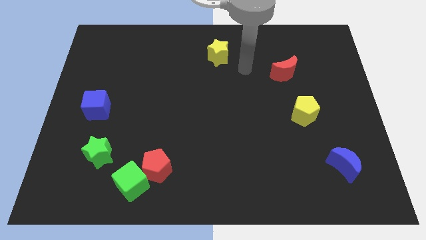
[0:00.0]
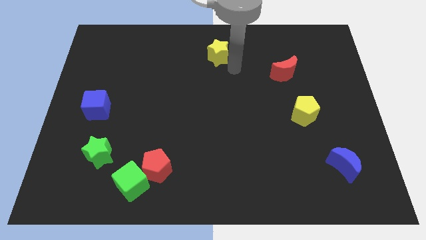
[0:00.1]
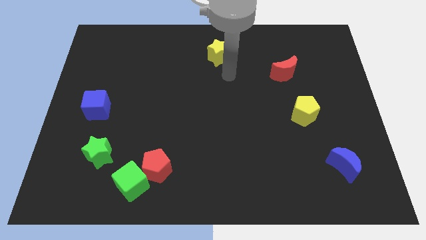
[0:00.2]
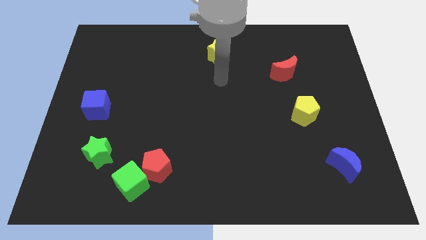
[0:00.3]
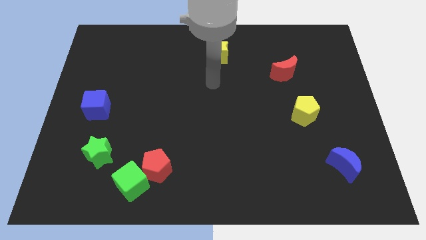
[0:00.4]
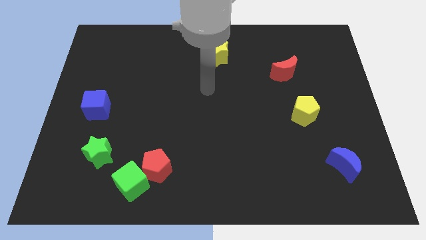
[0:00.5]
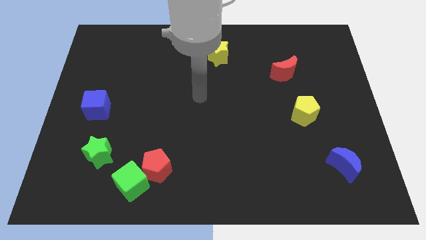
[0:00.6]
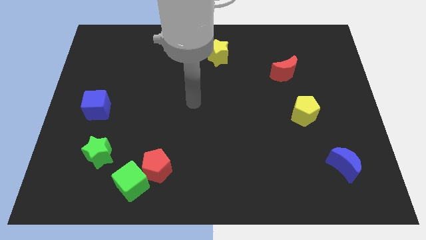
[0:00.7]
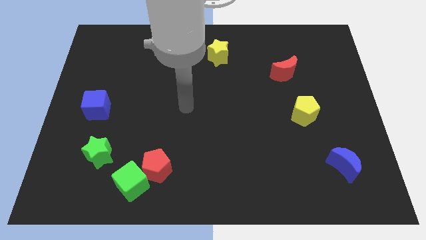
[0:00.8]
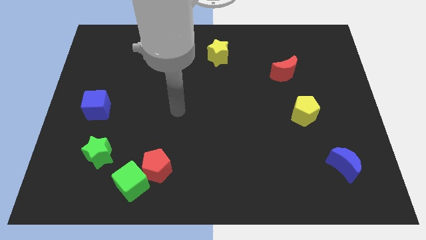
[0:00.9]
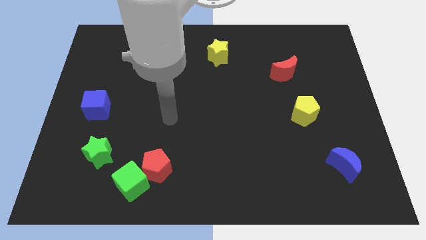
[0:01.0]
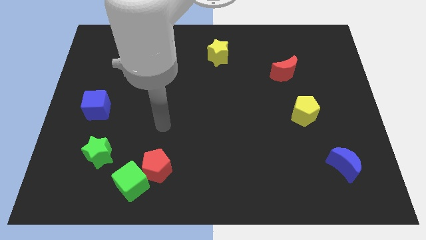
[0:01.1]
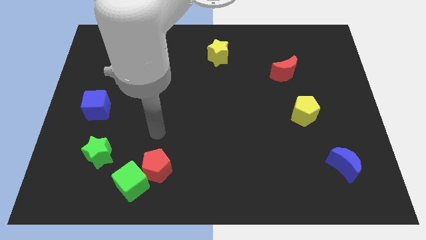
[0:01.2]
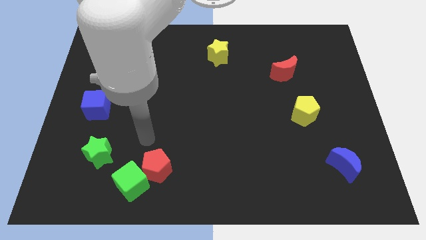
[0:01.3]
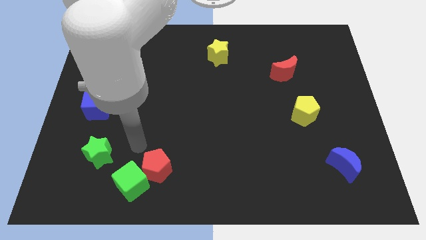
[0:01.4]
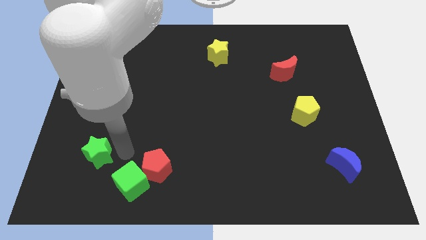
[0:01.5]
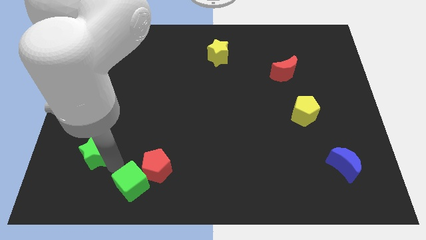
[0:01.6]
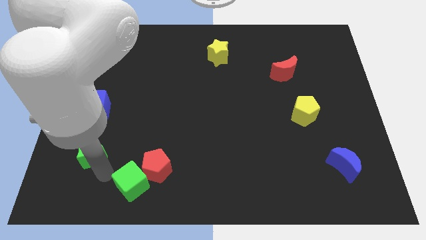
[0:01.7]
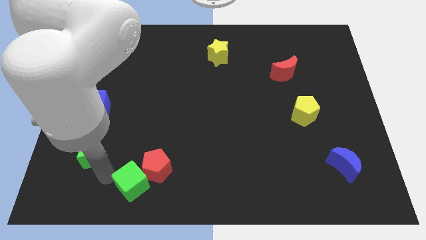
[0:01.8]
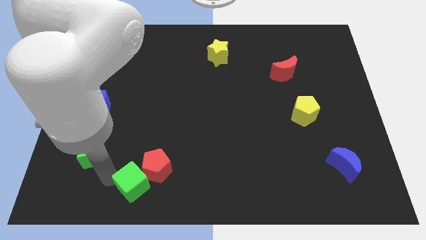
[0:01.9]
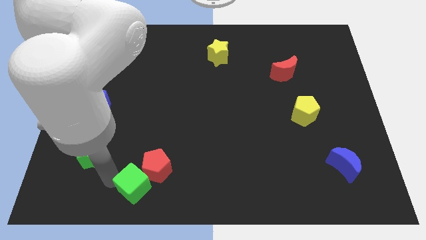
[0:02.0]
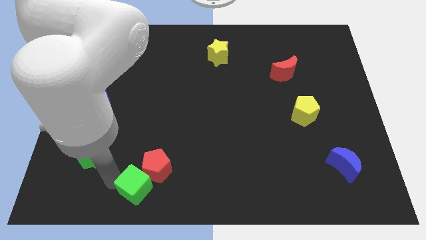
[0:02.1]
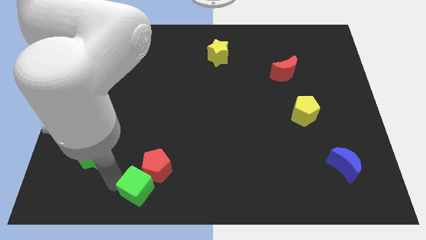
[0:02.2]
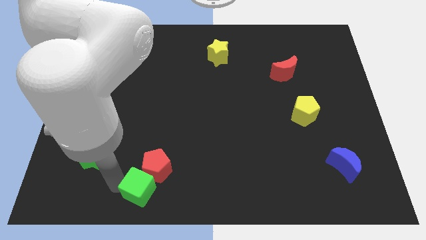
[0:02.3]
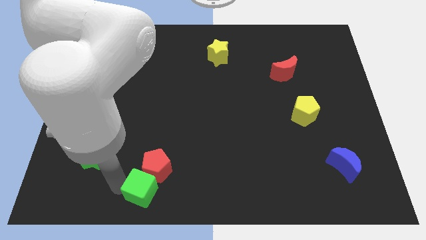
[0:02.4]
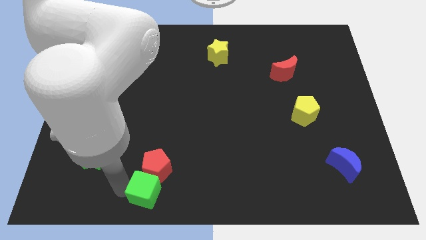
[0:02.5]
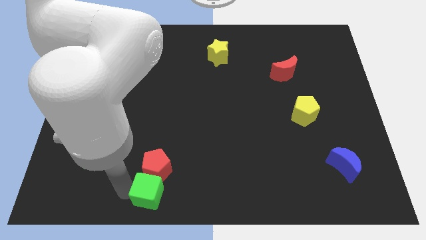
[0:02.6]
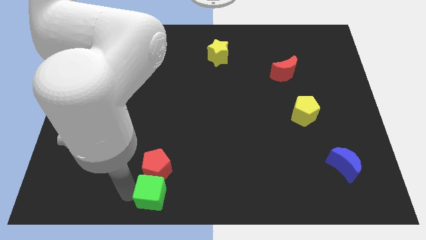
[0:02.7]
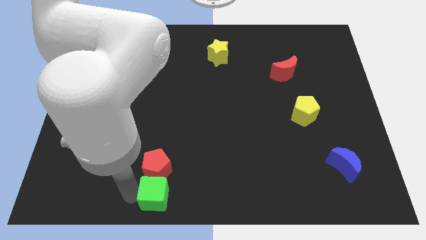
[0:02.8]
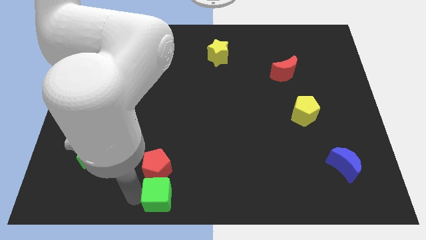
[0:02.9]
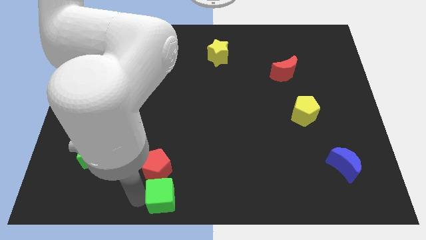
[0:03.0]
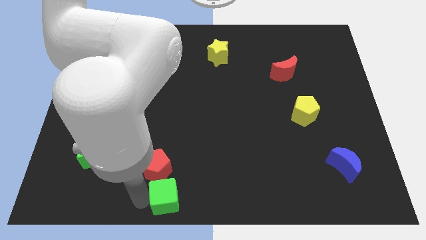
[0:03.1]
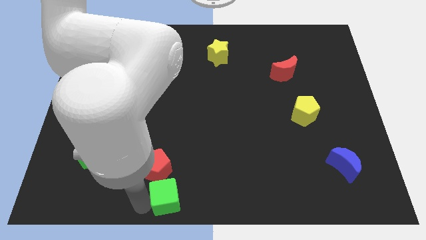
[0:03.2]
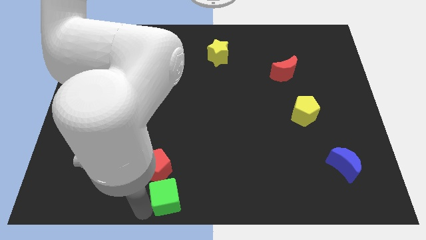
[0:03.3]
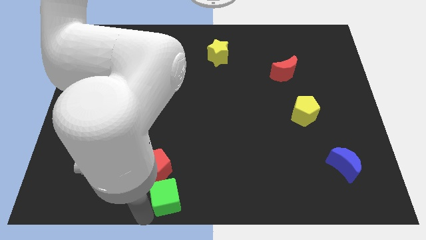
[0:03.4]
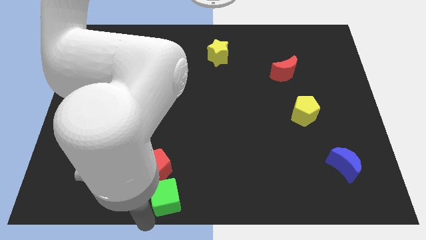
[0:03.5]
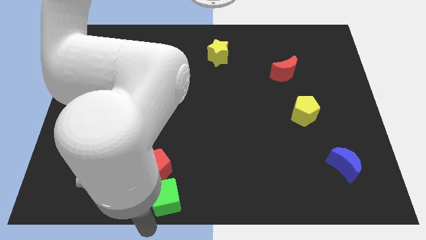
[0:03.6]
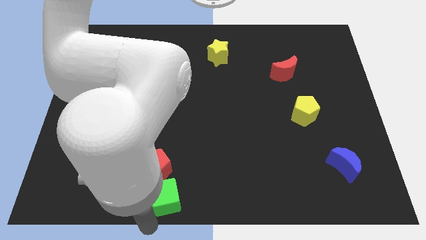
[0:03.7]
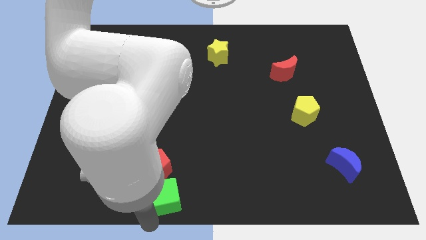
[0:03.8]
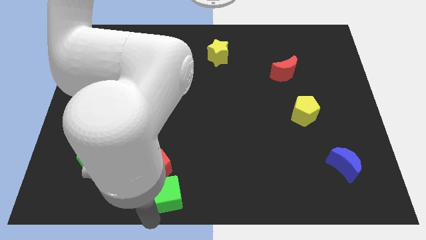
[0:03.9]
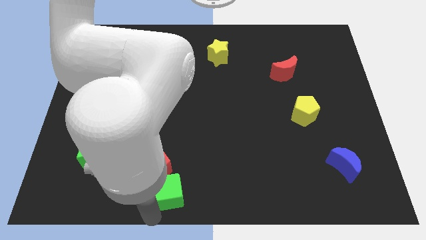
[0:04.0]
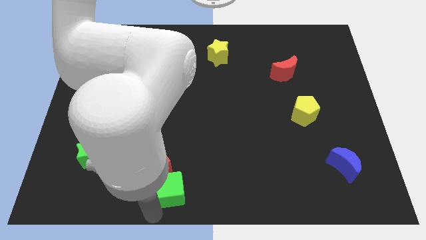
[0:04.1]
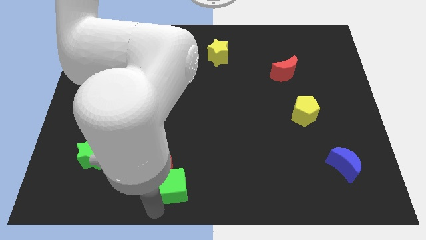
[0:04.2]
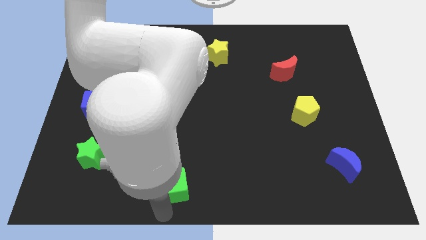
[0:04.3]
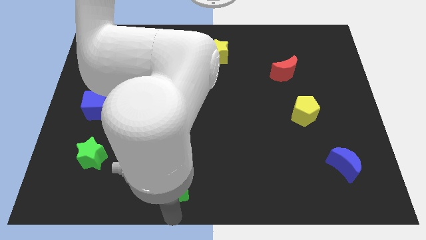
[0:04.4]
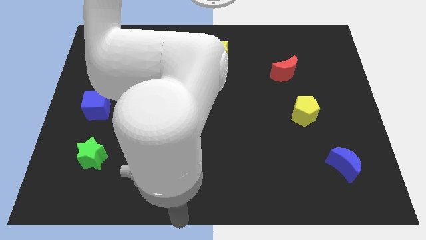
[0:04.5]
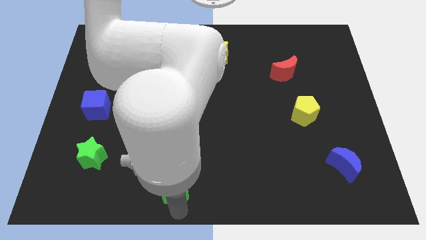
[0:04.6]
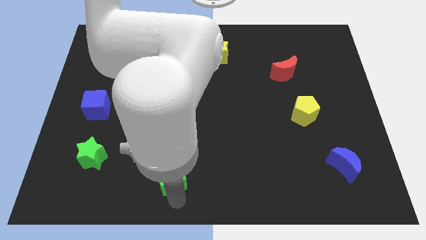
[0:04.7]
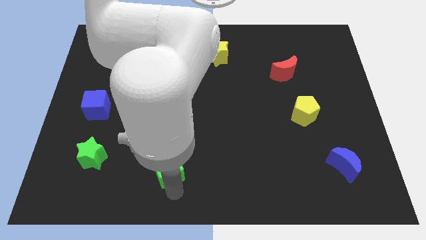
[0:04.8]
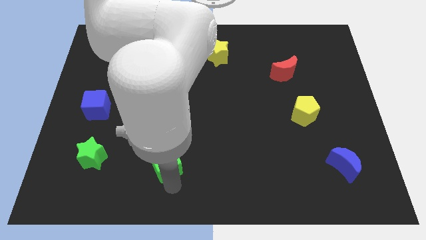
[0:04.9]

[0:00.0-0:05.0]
put the green cube to the right of the green star

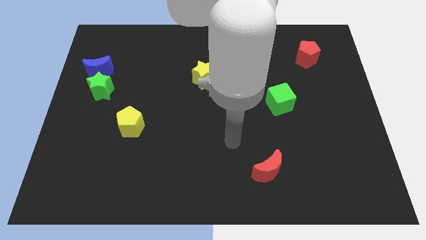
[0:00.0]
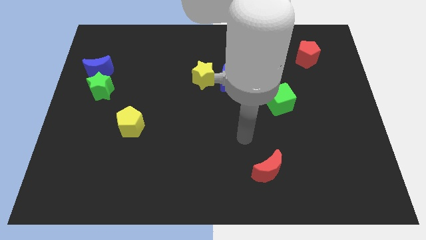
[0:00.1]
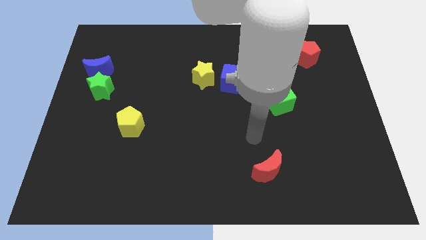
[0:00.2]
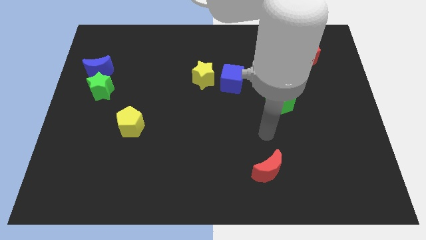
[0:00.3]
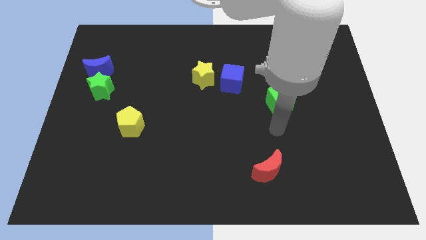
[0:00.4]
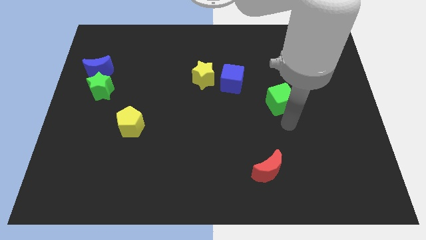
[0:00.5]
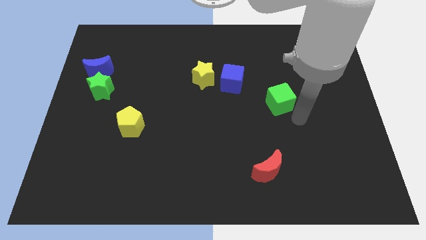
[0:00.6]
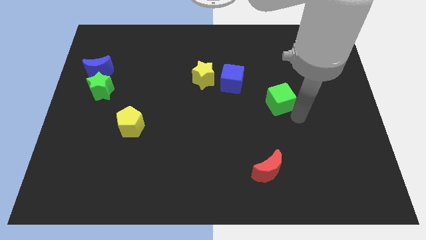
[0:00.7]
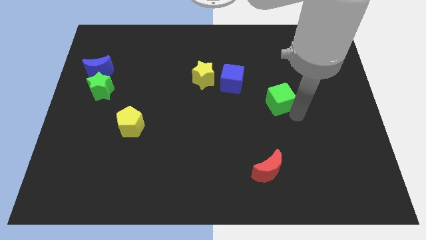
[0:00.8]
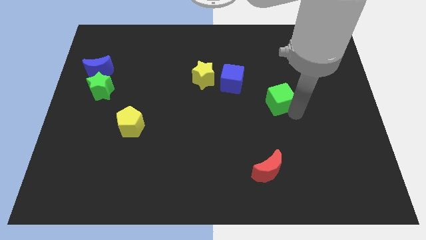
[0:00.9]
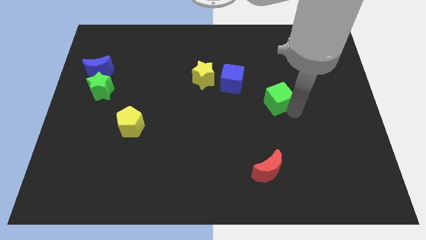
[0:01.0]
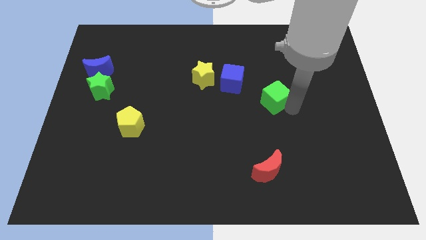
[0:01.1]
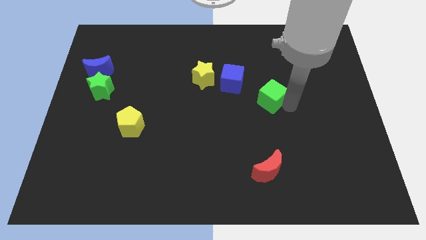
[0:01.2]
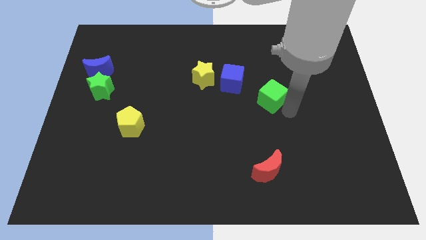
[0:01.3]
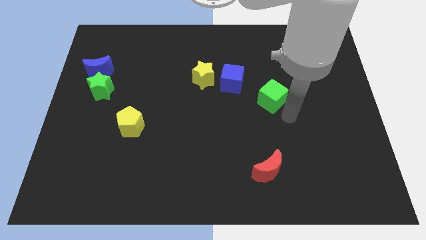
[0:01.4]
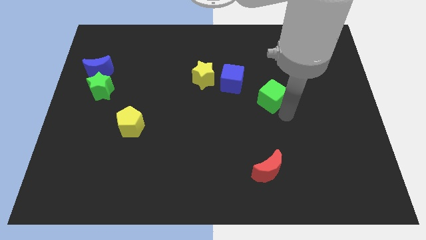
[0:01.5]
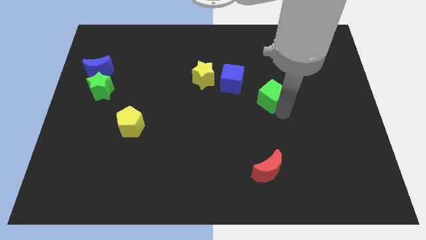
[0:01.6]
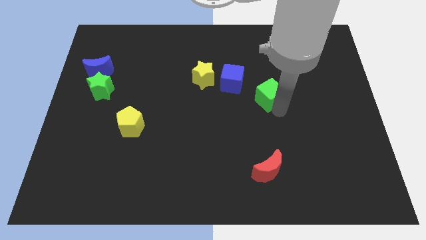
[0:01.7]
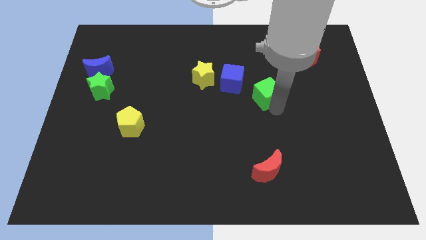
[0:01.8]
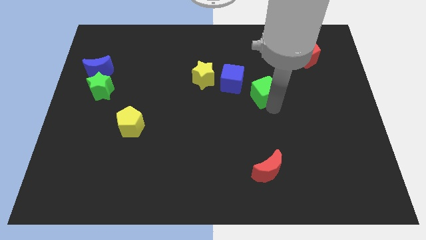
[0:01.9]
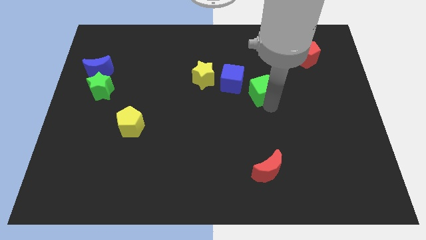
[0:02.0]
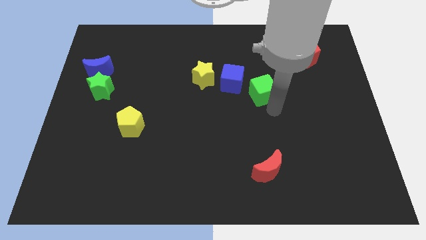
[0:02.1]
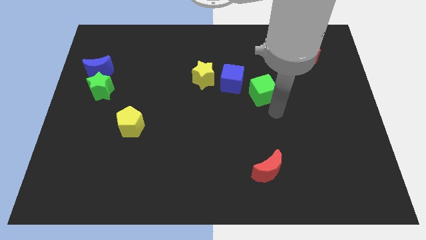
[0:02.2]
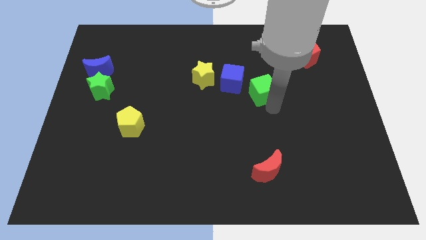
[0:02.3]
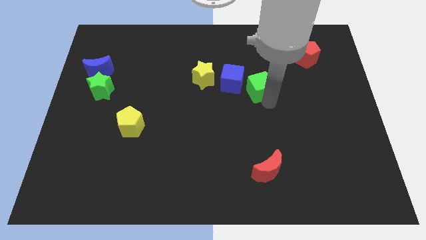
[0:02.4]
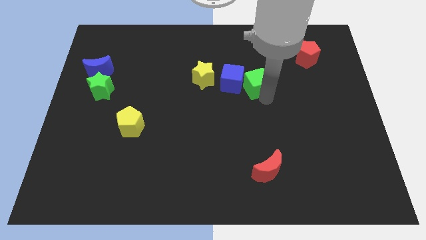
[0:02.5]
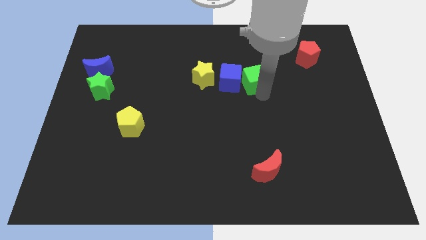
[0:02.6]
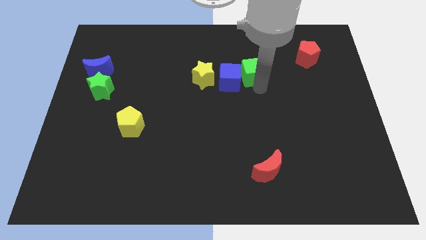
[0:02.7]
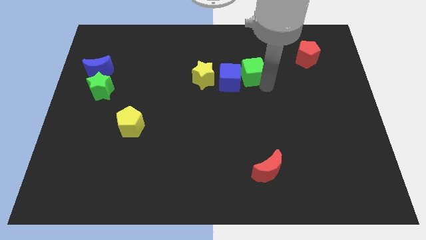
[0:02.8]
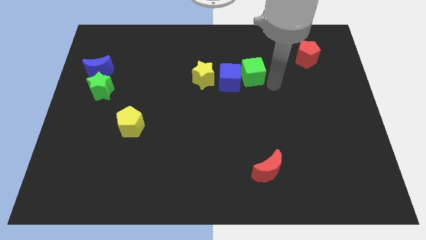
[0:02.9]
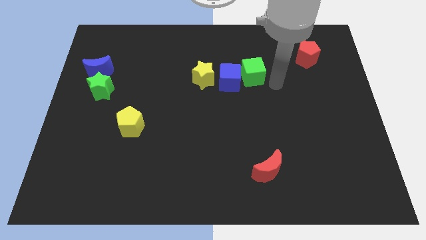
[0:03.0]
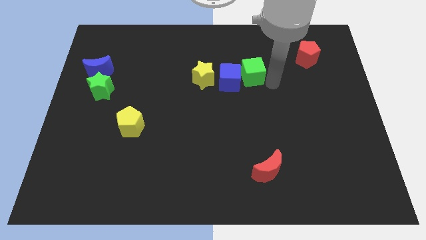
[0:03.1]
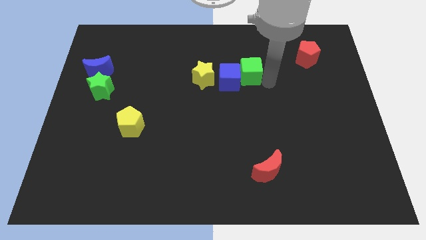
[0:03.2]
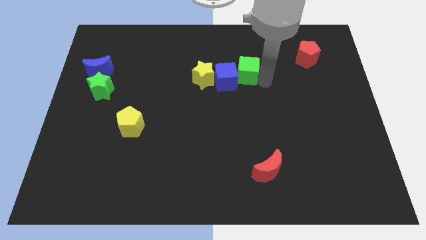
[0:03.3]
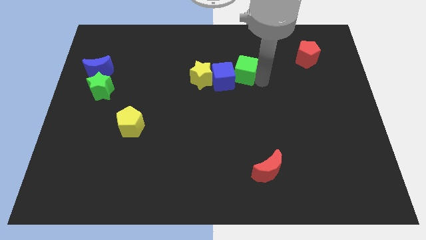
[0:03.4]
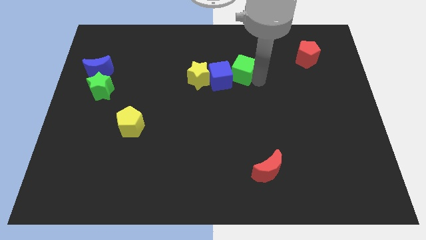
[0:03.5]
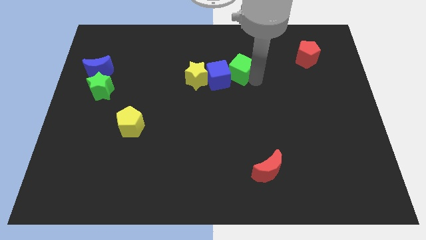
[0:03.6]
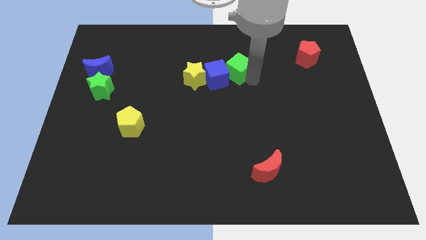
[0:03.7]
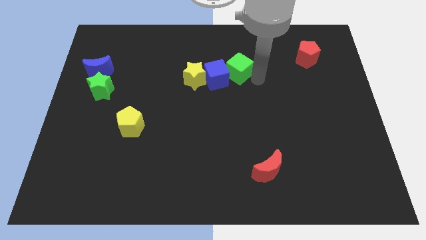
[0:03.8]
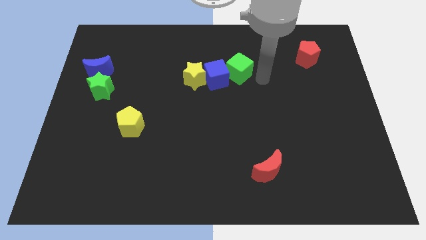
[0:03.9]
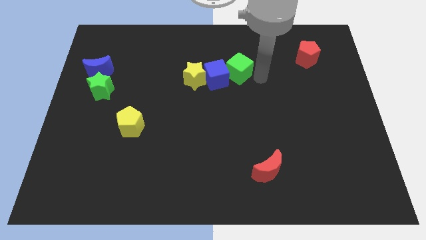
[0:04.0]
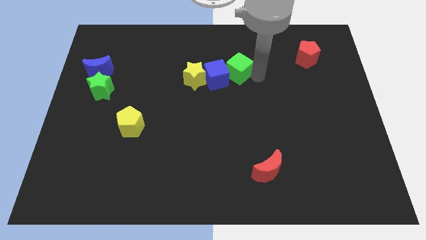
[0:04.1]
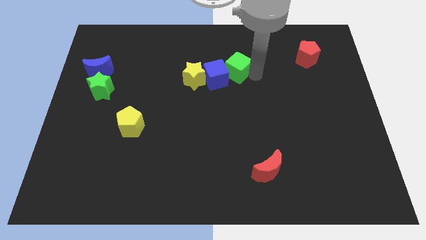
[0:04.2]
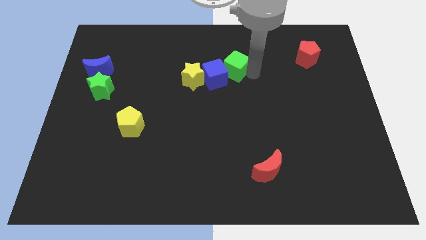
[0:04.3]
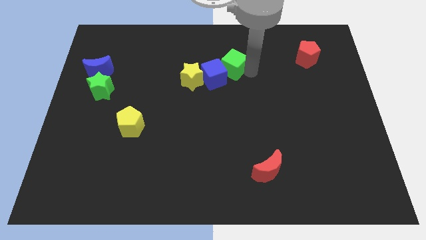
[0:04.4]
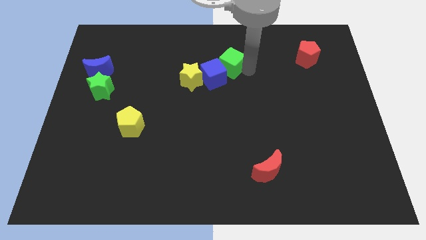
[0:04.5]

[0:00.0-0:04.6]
slide the green cube to the top right of the yellow star
